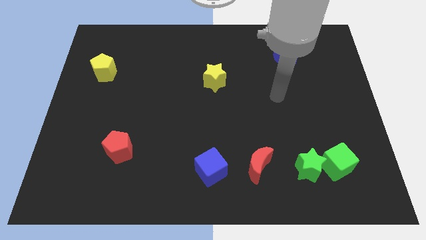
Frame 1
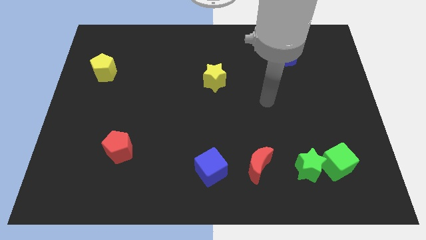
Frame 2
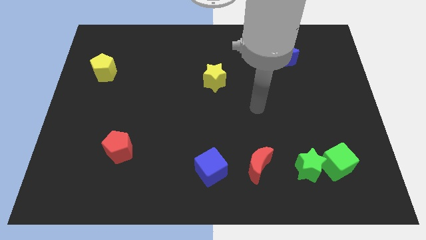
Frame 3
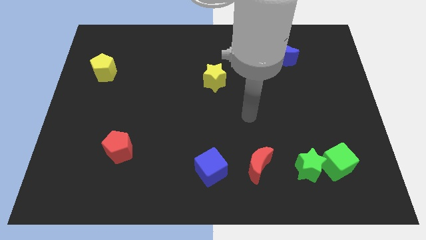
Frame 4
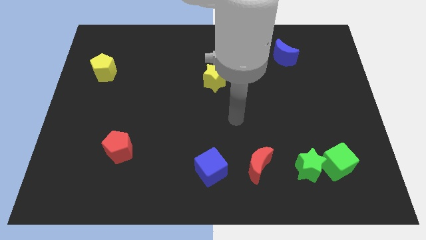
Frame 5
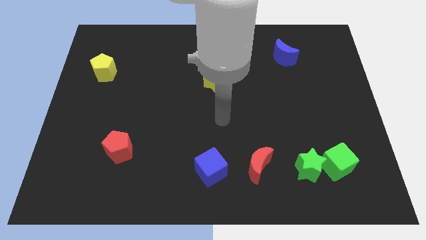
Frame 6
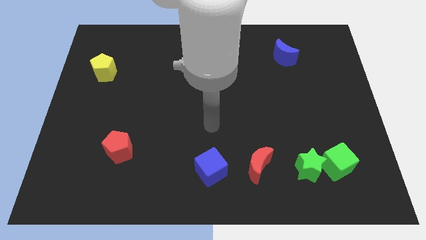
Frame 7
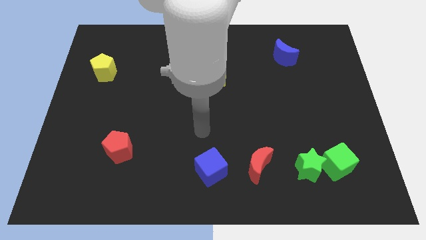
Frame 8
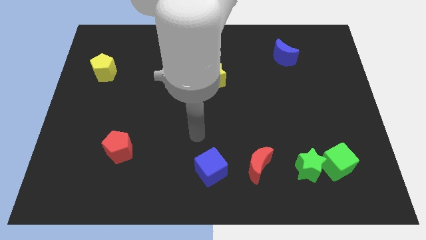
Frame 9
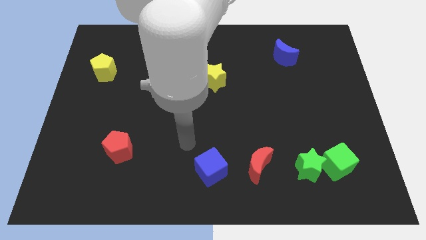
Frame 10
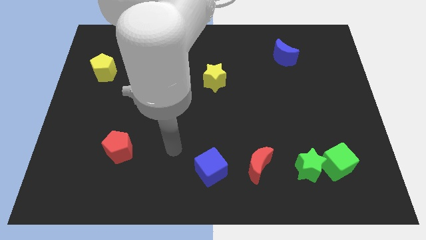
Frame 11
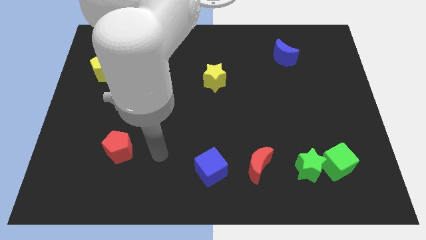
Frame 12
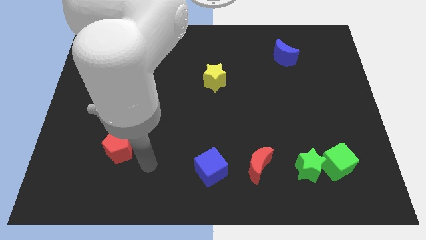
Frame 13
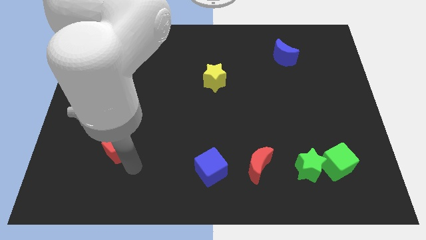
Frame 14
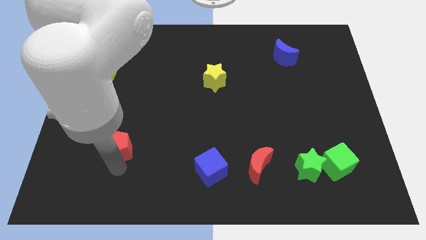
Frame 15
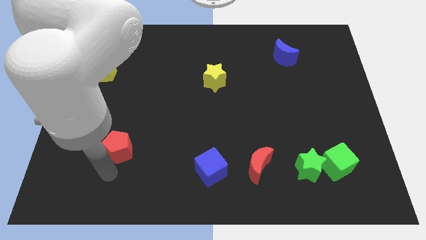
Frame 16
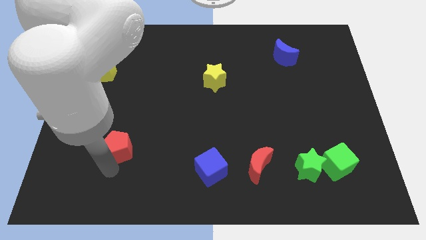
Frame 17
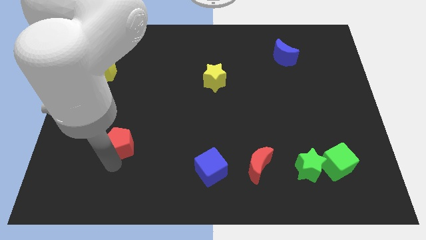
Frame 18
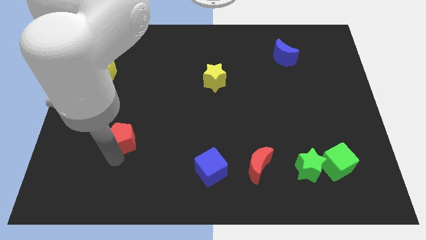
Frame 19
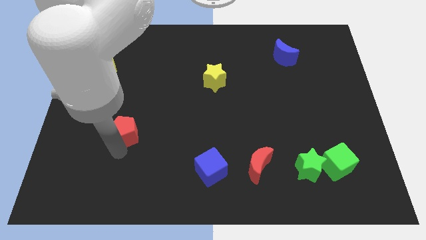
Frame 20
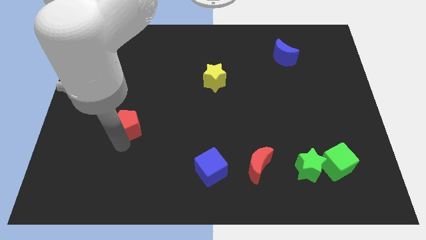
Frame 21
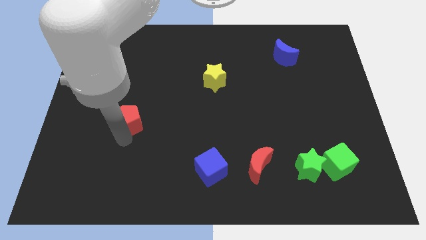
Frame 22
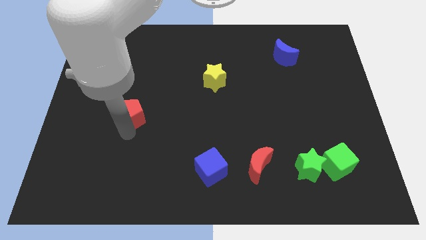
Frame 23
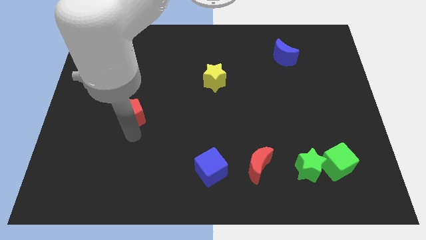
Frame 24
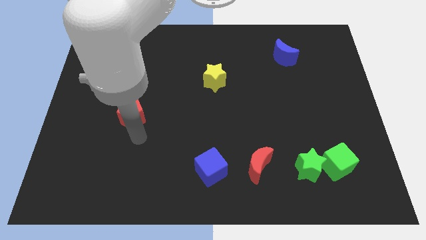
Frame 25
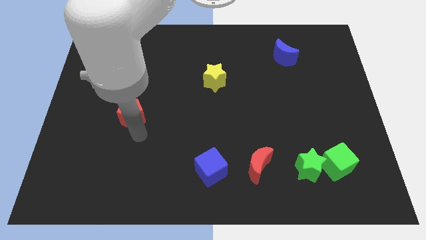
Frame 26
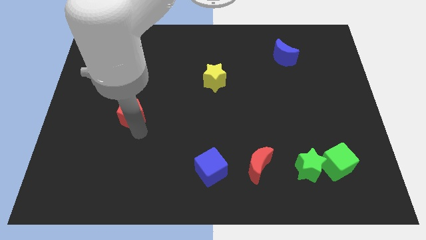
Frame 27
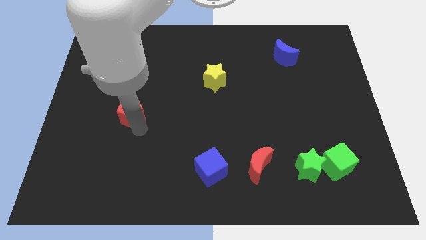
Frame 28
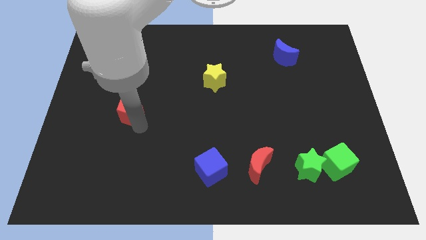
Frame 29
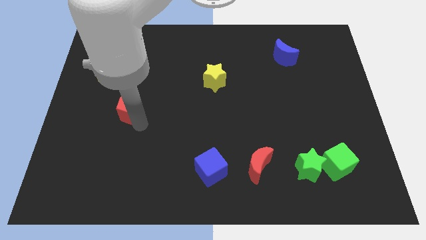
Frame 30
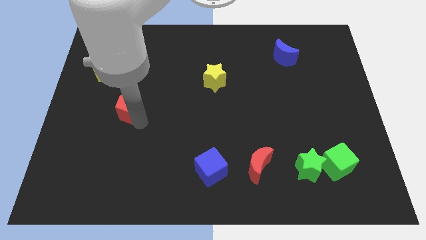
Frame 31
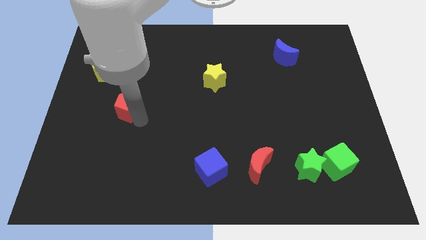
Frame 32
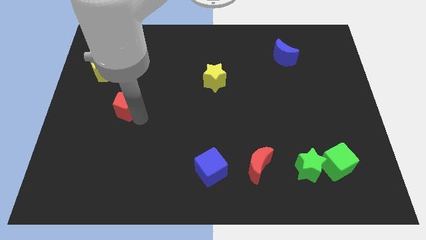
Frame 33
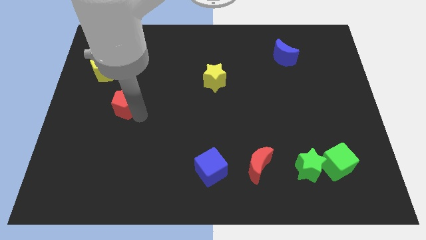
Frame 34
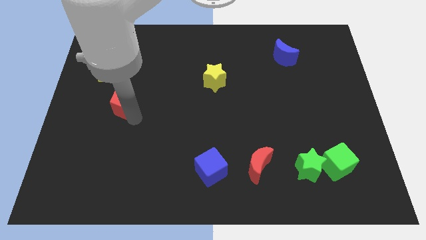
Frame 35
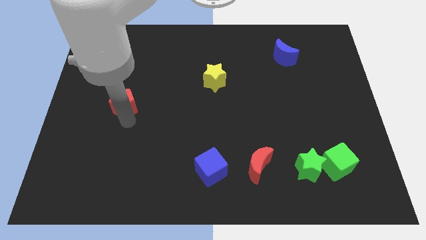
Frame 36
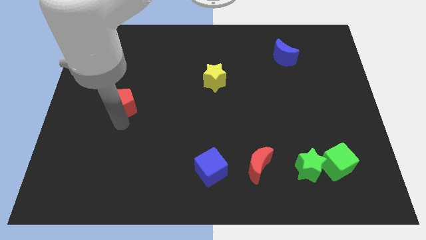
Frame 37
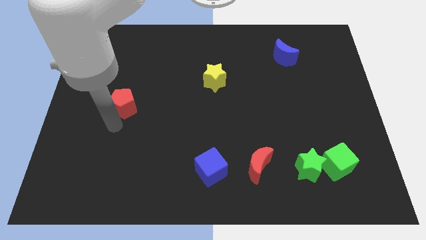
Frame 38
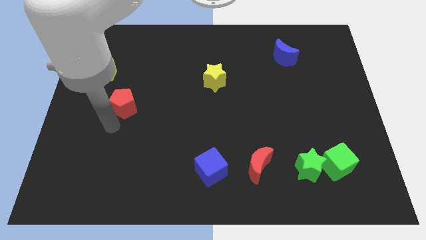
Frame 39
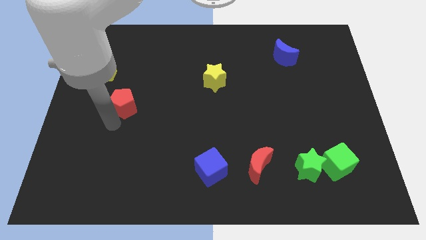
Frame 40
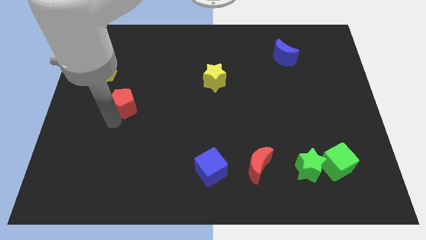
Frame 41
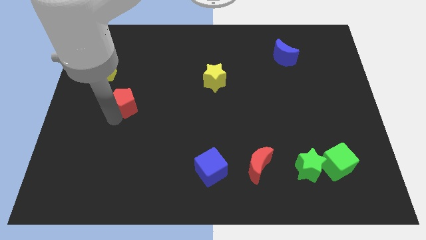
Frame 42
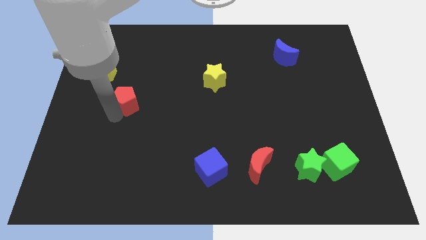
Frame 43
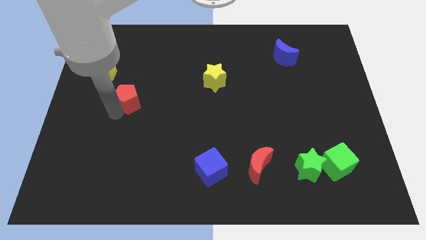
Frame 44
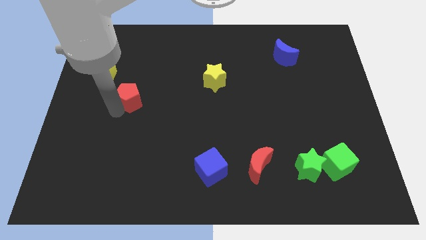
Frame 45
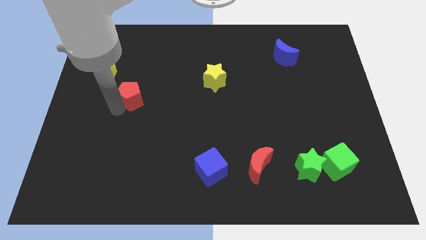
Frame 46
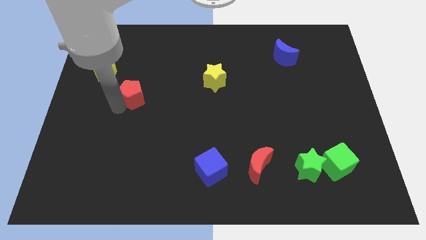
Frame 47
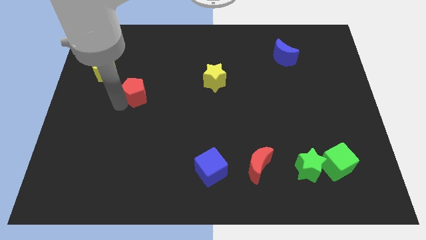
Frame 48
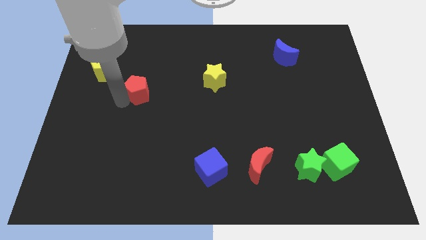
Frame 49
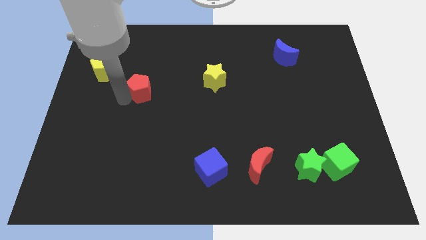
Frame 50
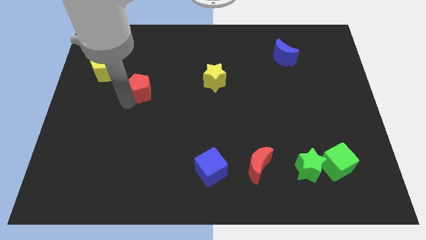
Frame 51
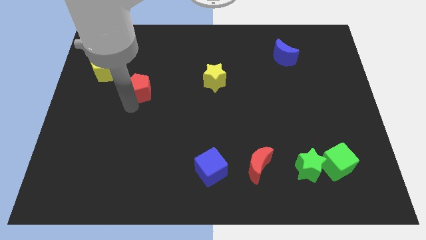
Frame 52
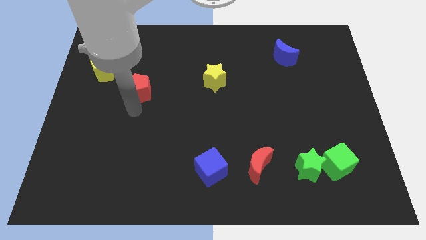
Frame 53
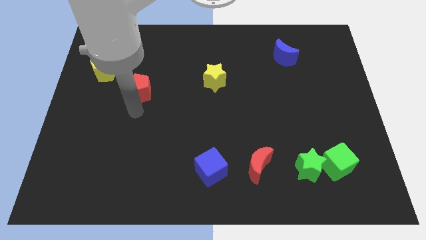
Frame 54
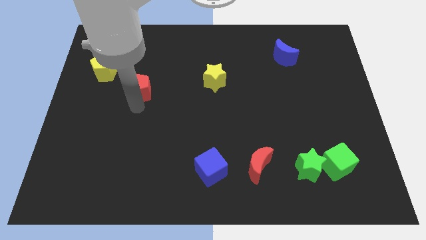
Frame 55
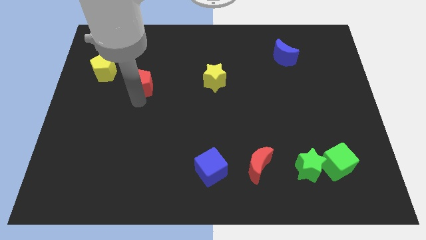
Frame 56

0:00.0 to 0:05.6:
put the red pentagon to the right side of the yellow pentagon

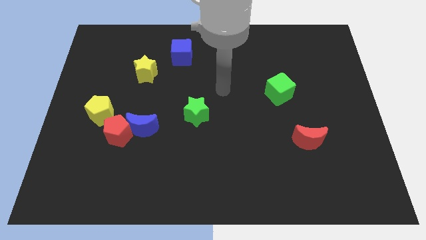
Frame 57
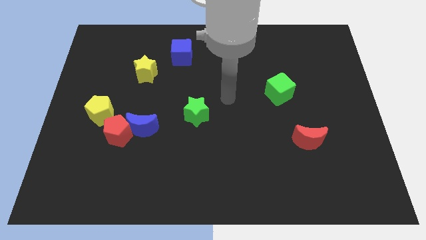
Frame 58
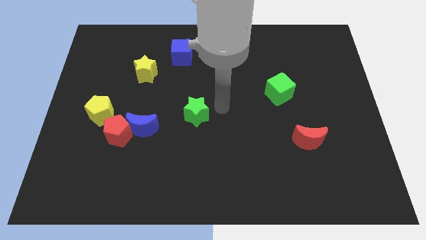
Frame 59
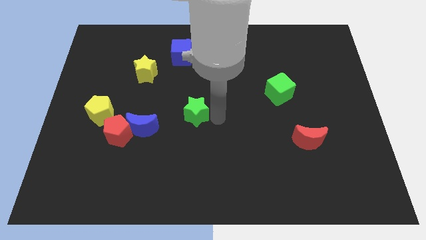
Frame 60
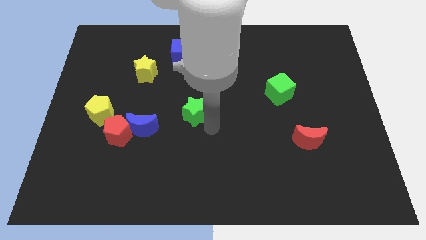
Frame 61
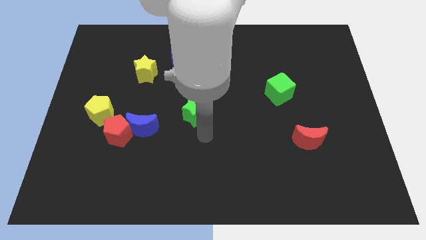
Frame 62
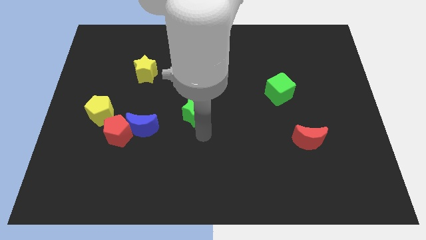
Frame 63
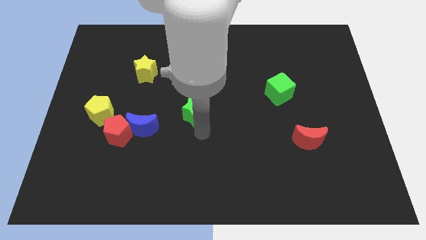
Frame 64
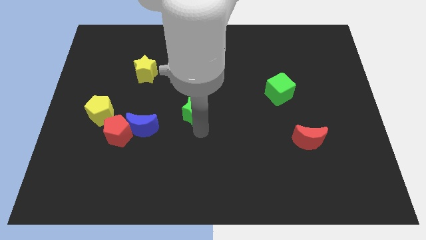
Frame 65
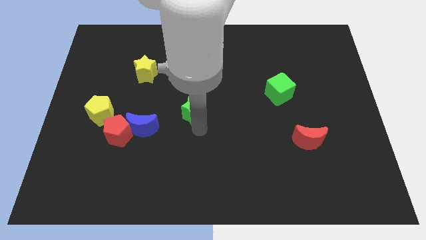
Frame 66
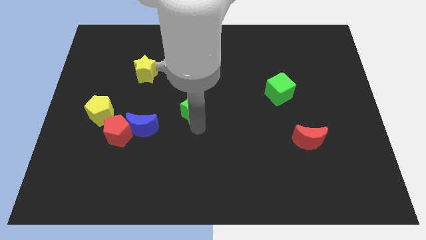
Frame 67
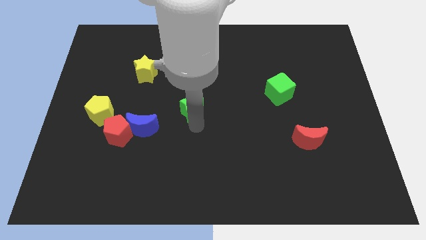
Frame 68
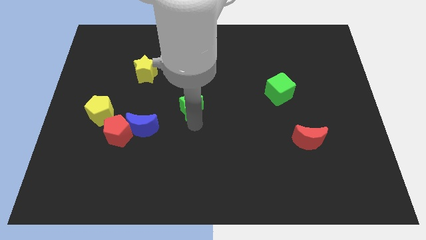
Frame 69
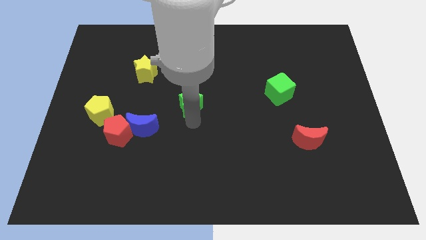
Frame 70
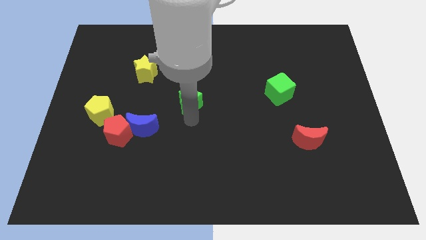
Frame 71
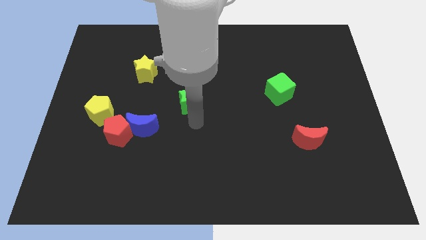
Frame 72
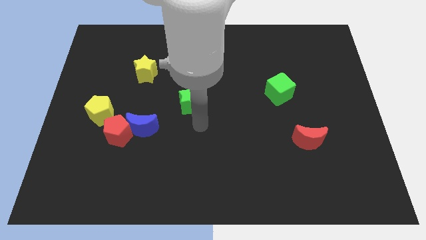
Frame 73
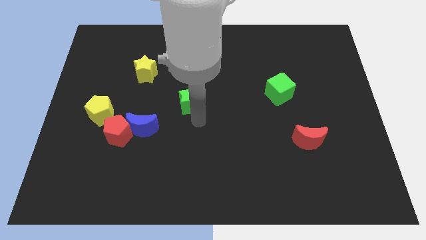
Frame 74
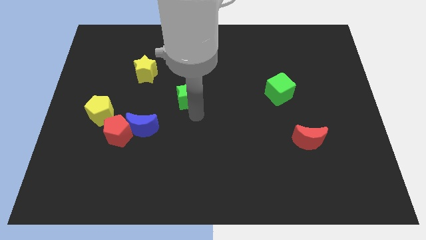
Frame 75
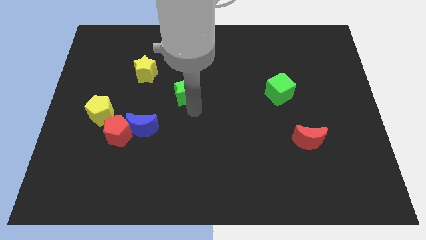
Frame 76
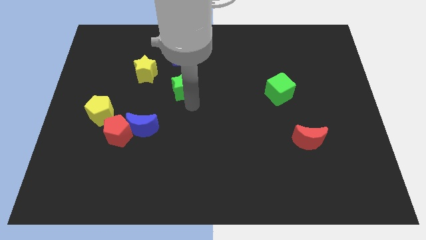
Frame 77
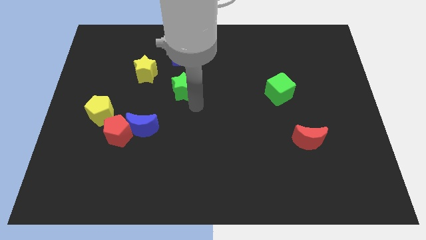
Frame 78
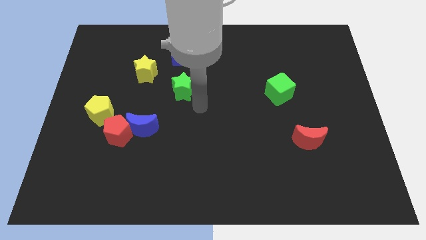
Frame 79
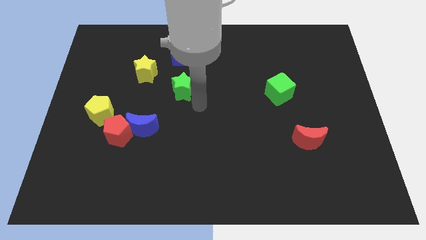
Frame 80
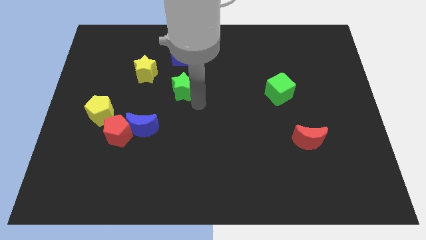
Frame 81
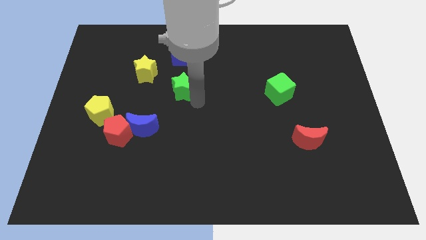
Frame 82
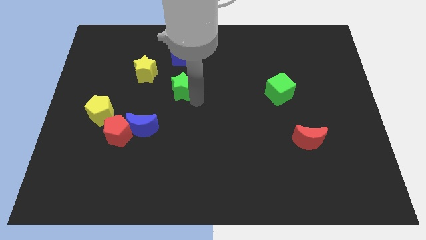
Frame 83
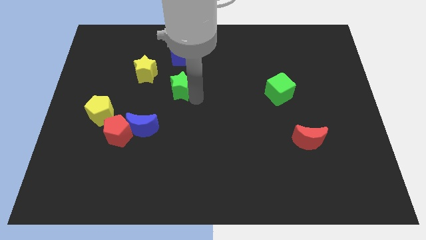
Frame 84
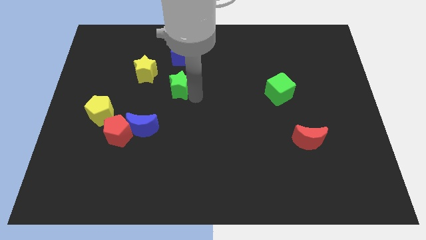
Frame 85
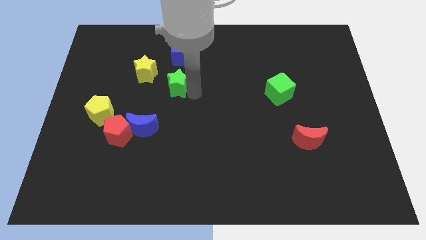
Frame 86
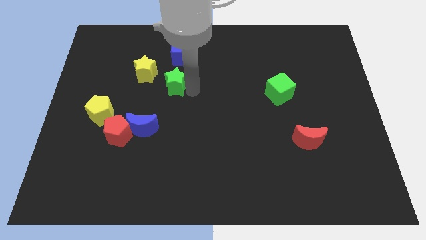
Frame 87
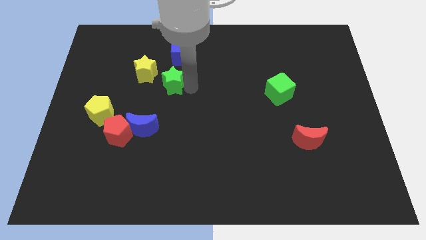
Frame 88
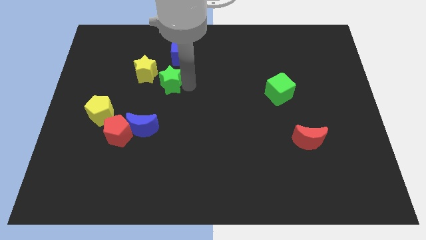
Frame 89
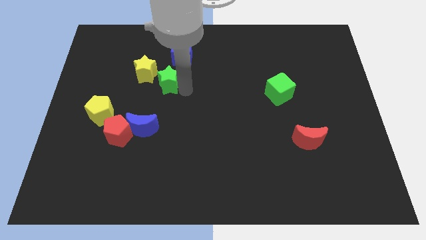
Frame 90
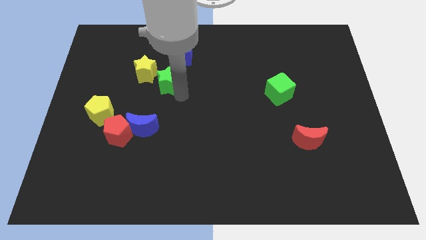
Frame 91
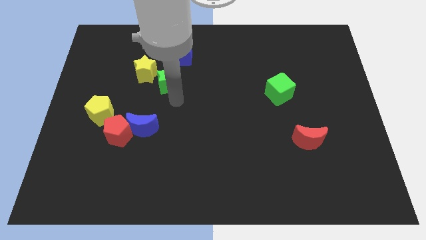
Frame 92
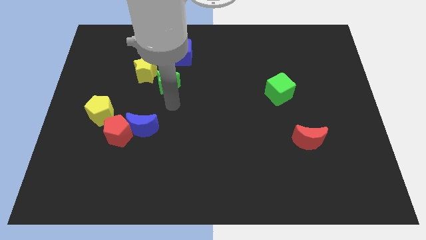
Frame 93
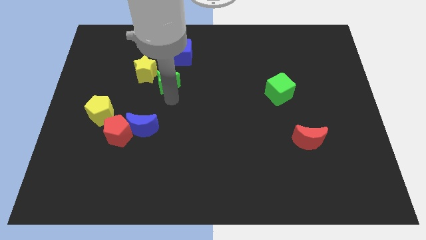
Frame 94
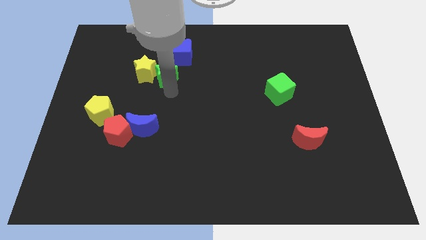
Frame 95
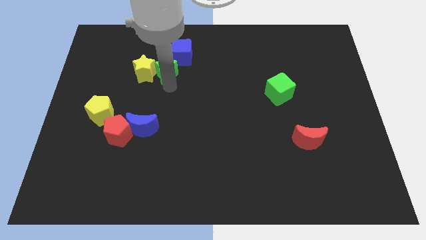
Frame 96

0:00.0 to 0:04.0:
slide the green star diagonally up and to the right of the yellow star
